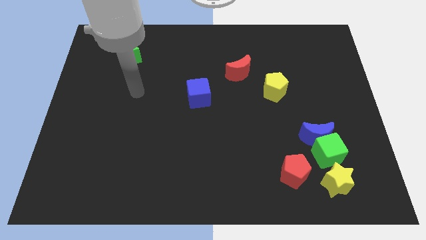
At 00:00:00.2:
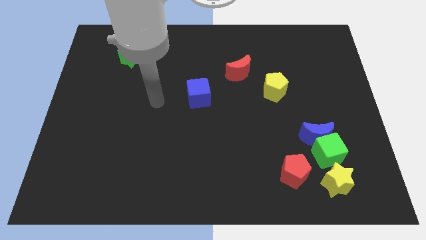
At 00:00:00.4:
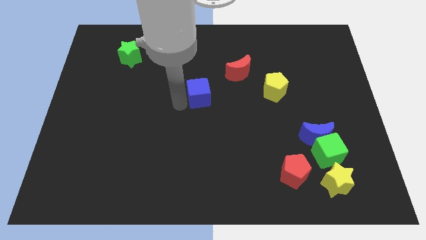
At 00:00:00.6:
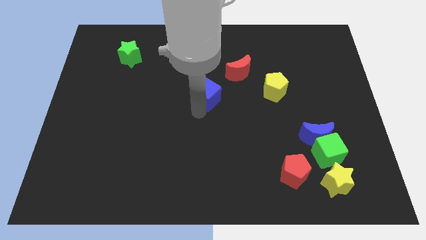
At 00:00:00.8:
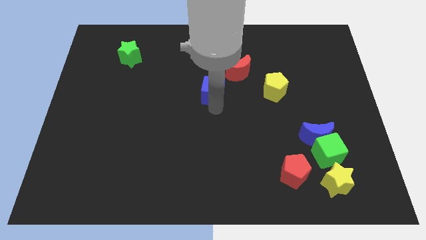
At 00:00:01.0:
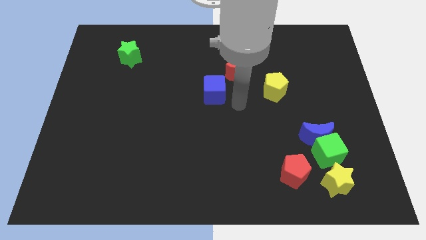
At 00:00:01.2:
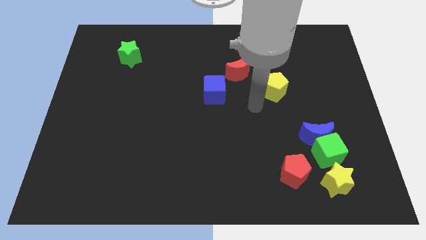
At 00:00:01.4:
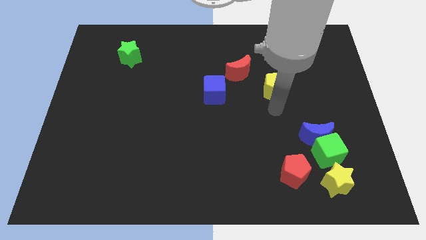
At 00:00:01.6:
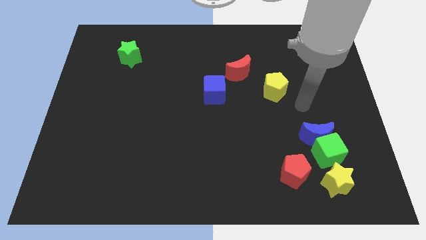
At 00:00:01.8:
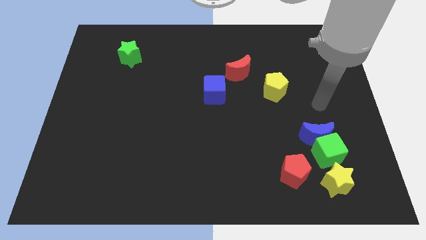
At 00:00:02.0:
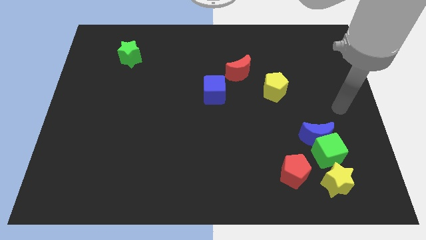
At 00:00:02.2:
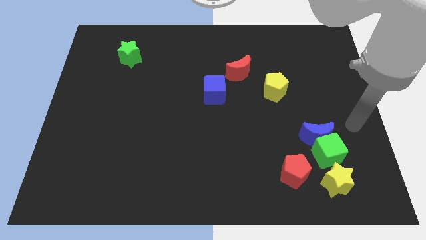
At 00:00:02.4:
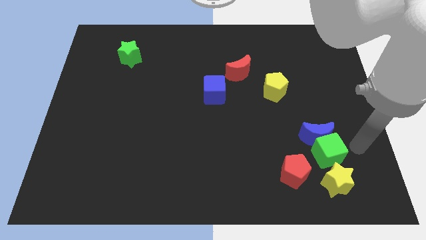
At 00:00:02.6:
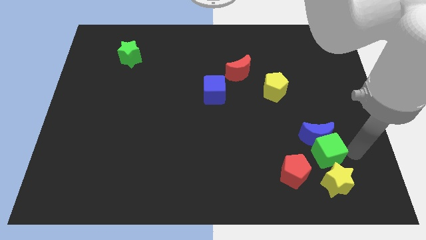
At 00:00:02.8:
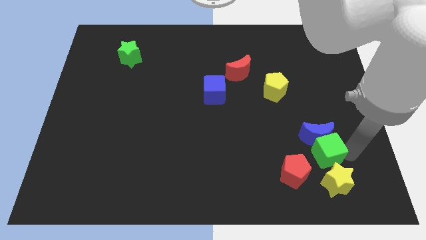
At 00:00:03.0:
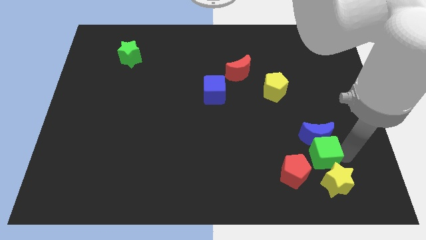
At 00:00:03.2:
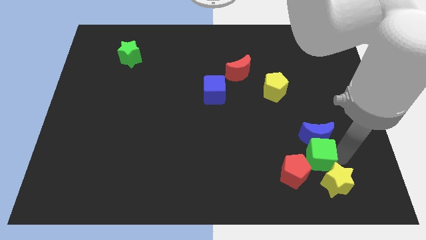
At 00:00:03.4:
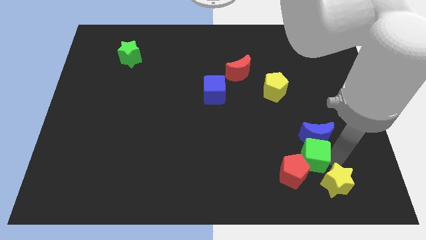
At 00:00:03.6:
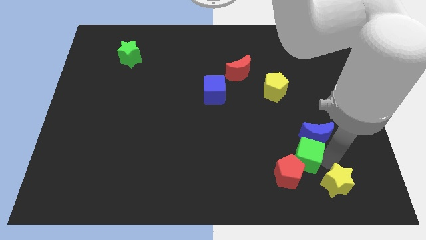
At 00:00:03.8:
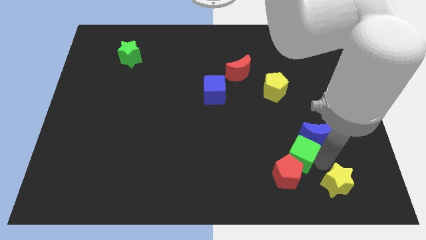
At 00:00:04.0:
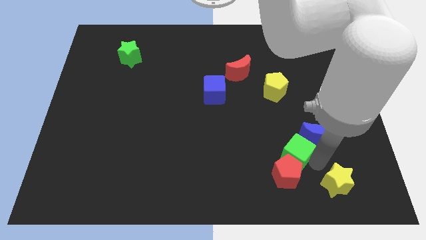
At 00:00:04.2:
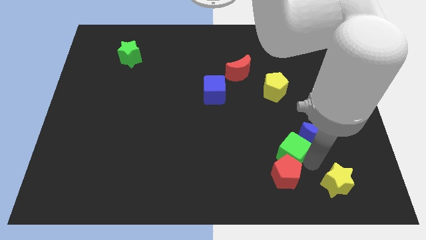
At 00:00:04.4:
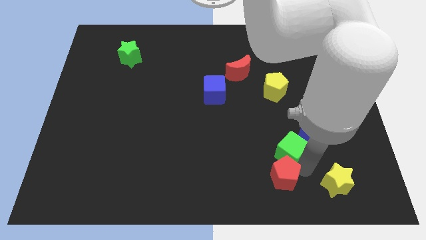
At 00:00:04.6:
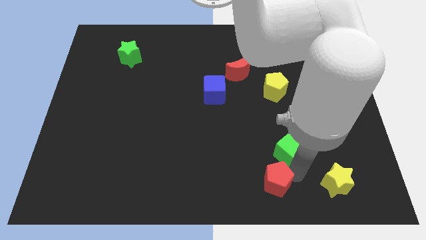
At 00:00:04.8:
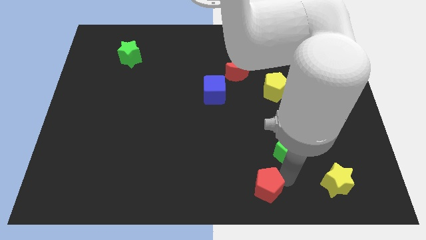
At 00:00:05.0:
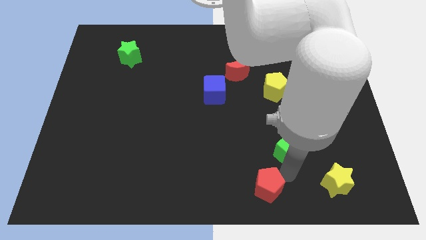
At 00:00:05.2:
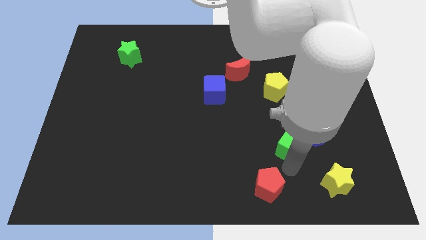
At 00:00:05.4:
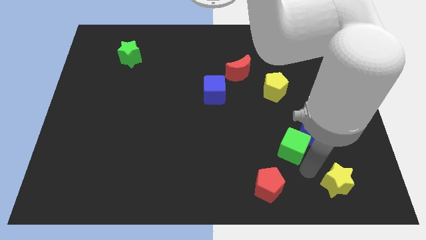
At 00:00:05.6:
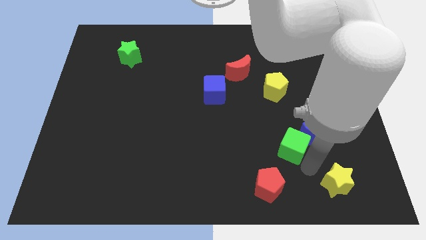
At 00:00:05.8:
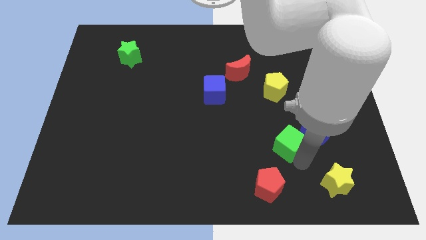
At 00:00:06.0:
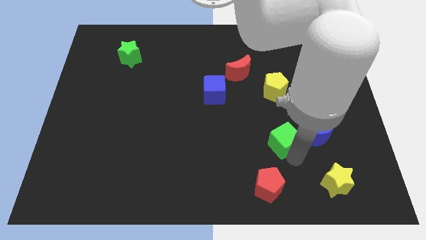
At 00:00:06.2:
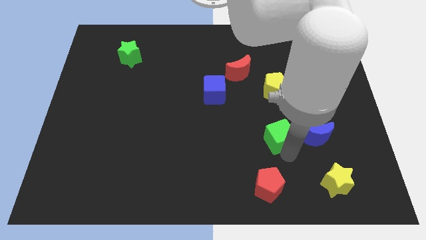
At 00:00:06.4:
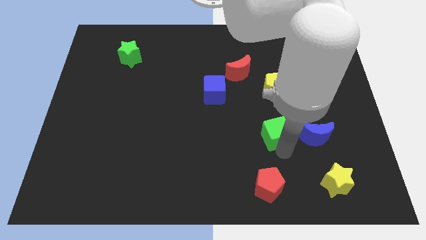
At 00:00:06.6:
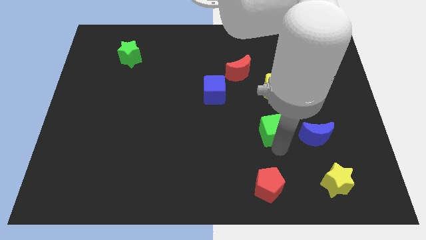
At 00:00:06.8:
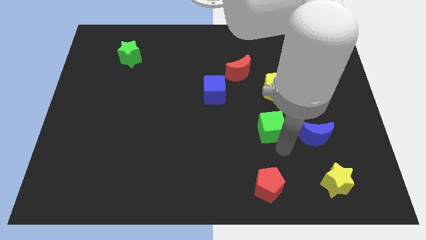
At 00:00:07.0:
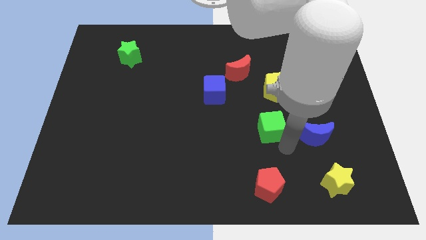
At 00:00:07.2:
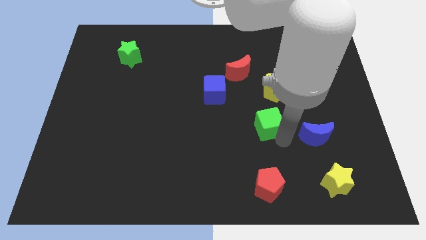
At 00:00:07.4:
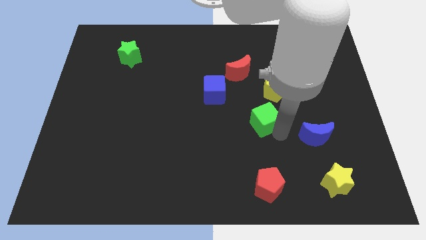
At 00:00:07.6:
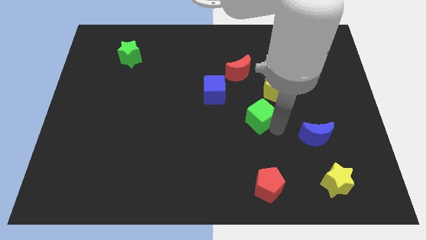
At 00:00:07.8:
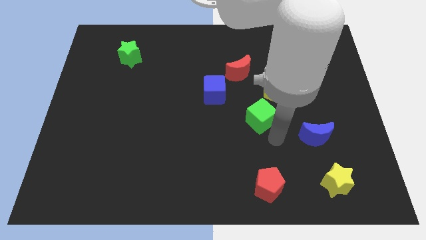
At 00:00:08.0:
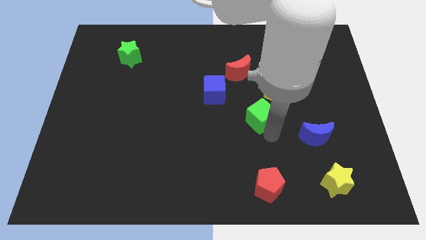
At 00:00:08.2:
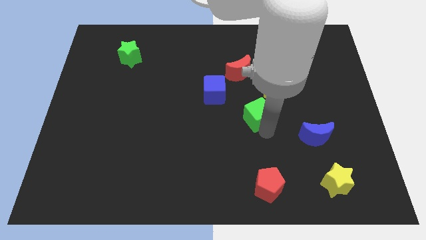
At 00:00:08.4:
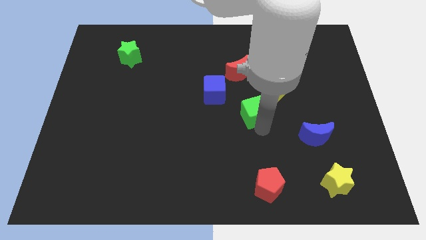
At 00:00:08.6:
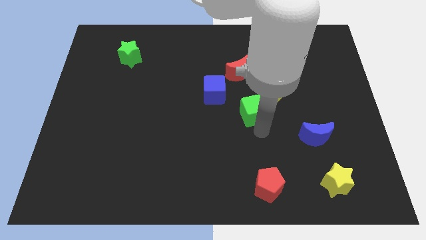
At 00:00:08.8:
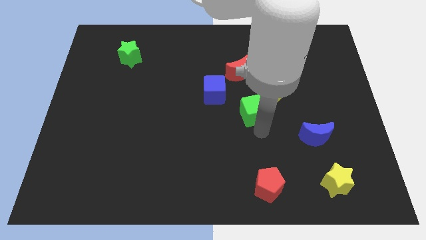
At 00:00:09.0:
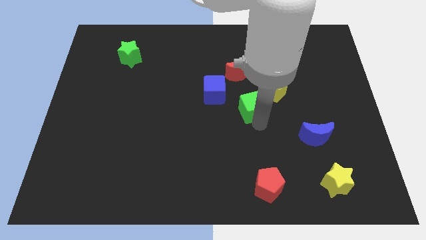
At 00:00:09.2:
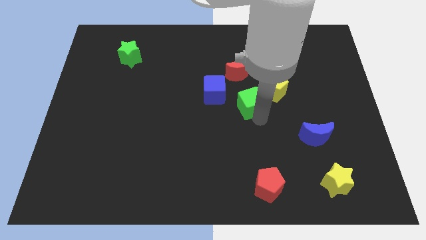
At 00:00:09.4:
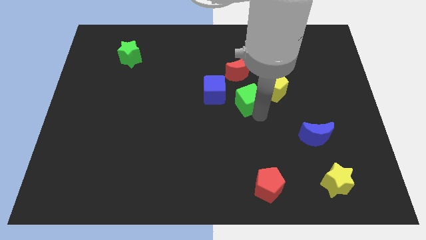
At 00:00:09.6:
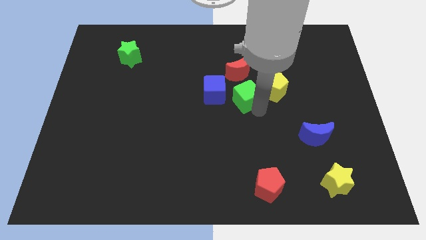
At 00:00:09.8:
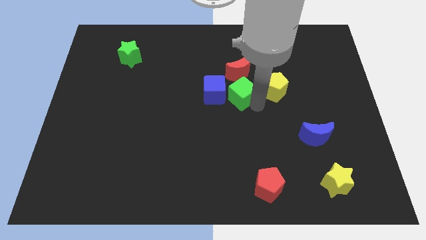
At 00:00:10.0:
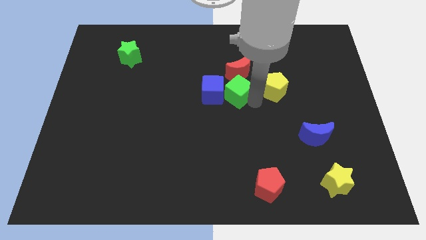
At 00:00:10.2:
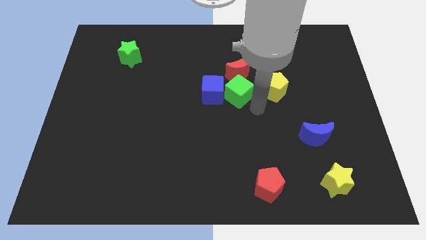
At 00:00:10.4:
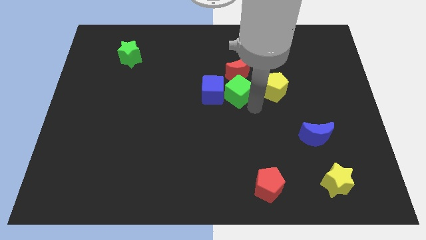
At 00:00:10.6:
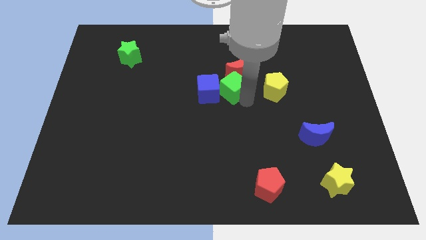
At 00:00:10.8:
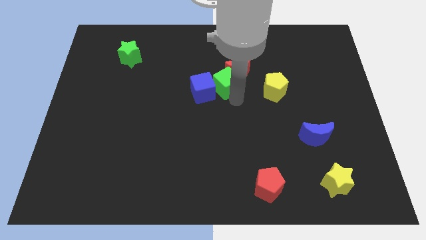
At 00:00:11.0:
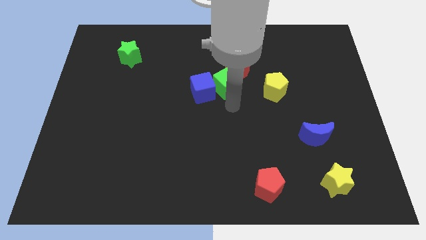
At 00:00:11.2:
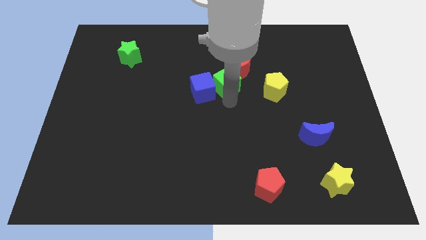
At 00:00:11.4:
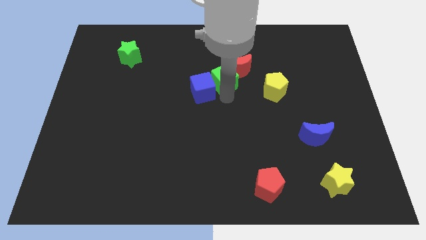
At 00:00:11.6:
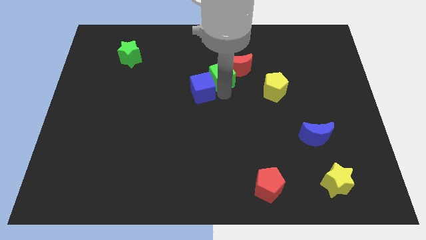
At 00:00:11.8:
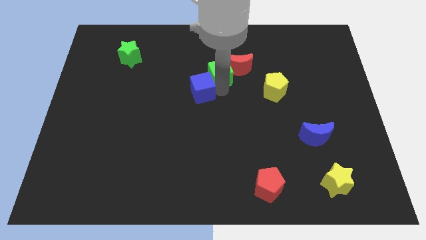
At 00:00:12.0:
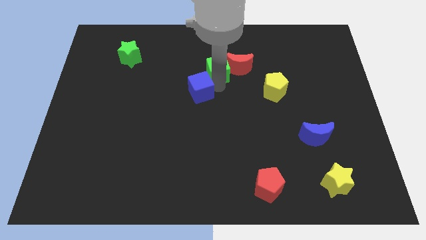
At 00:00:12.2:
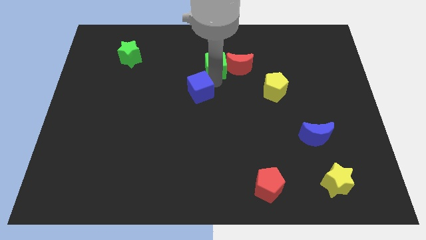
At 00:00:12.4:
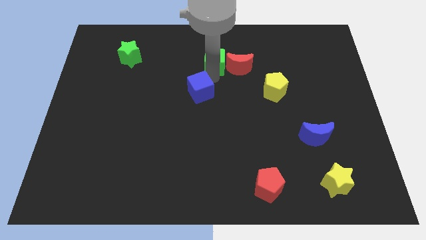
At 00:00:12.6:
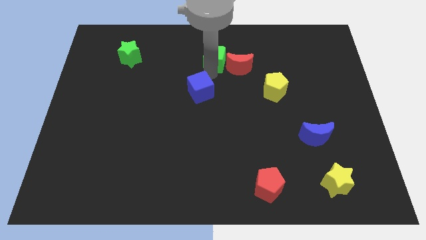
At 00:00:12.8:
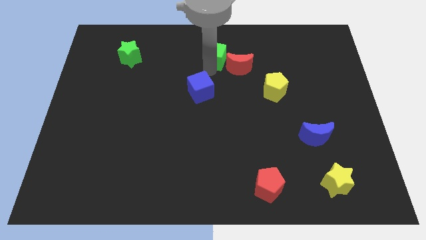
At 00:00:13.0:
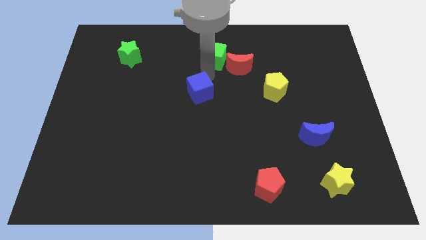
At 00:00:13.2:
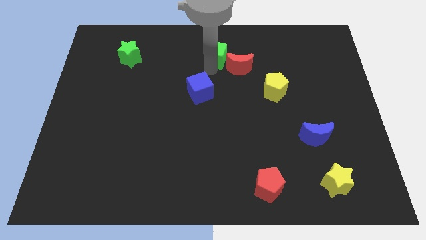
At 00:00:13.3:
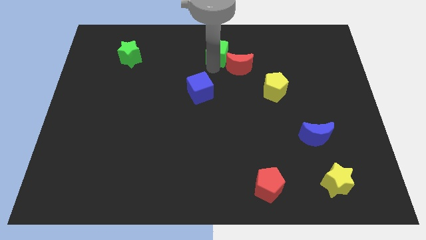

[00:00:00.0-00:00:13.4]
put the green cube to the towards your base

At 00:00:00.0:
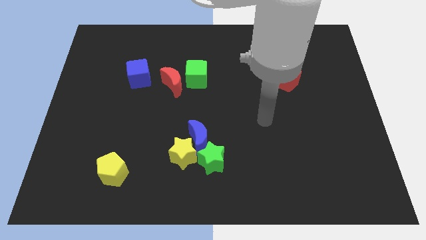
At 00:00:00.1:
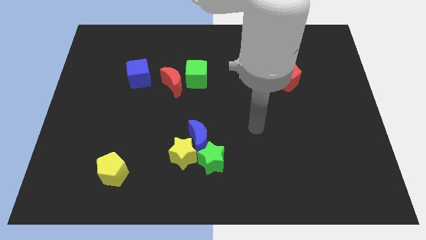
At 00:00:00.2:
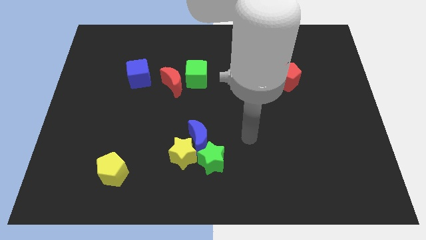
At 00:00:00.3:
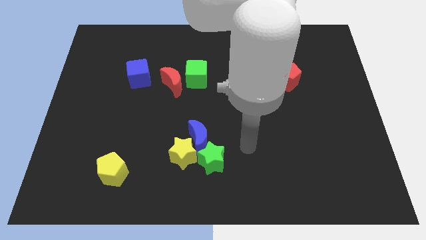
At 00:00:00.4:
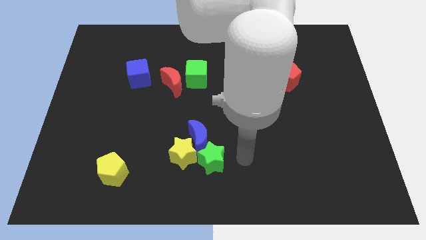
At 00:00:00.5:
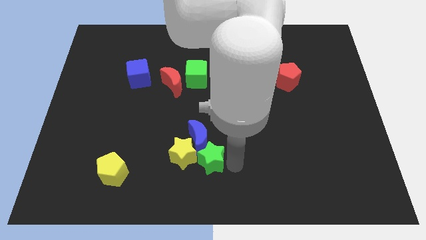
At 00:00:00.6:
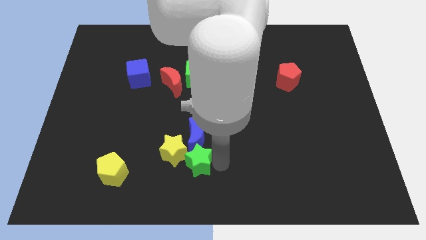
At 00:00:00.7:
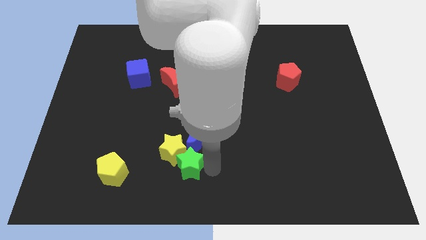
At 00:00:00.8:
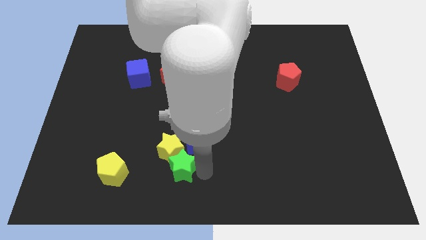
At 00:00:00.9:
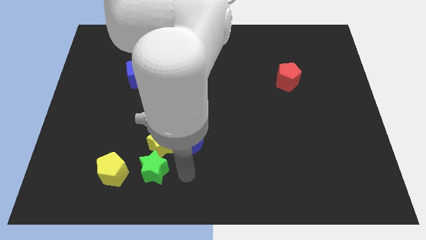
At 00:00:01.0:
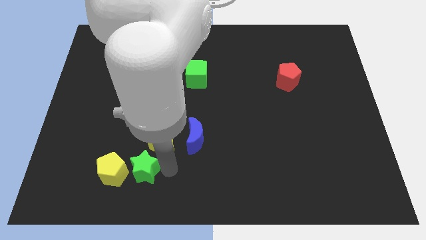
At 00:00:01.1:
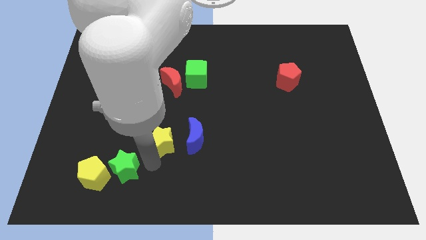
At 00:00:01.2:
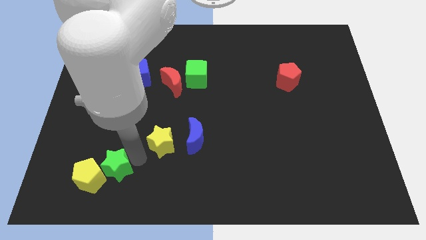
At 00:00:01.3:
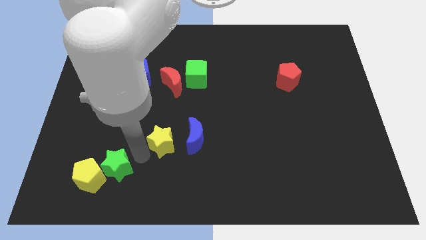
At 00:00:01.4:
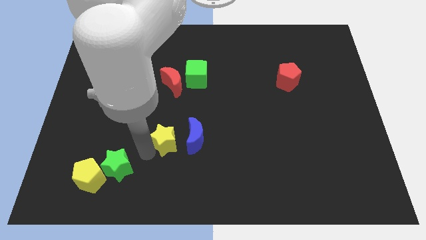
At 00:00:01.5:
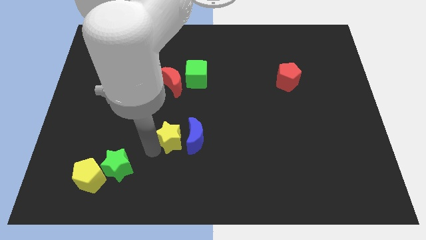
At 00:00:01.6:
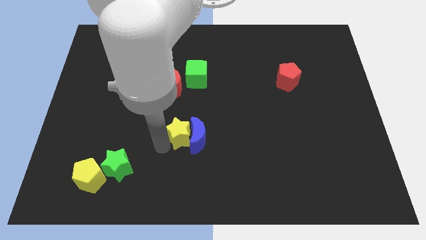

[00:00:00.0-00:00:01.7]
push the yellow star to the center of the board
